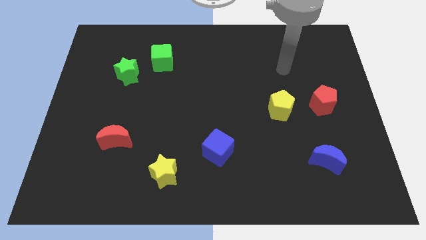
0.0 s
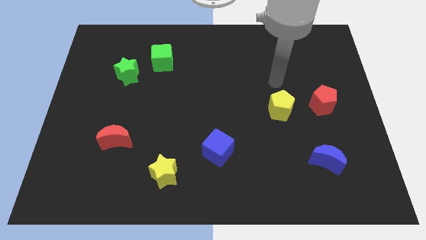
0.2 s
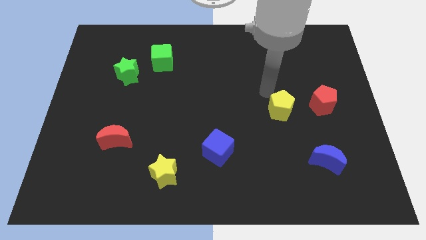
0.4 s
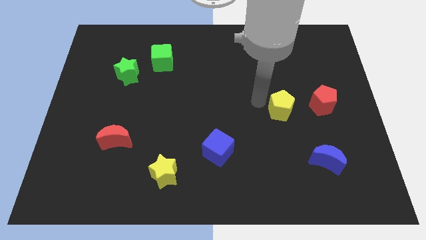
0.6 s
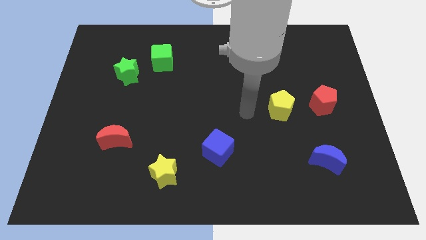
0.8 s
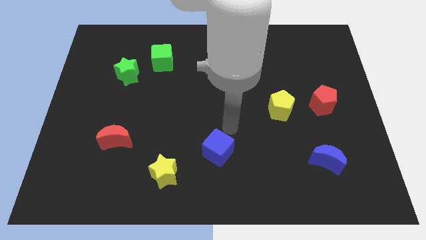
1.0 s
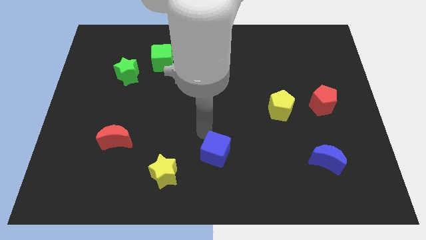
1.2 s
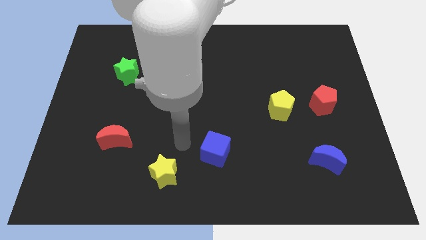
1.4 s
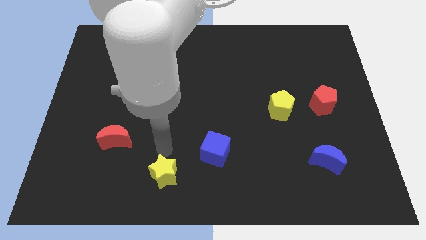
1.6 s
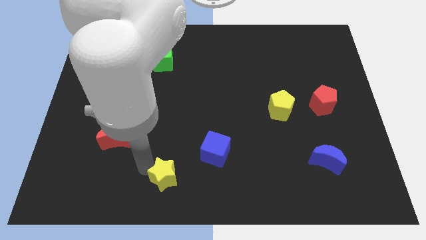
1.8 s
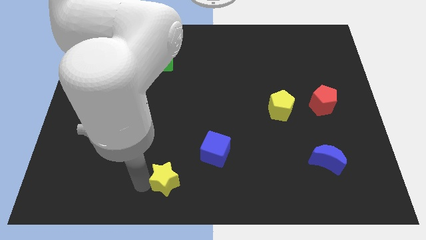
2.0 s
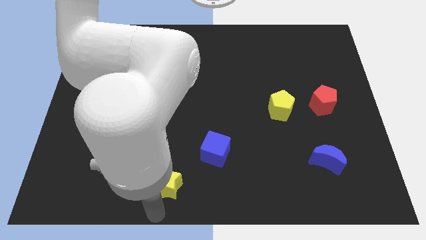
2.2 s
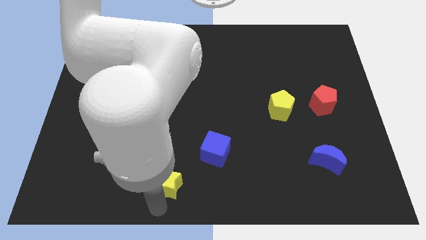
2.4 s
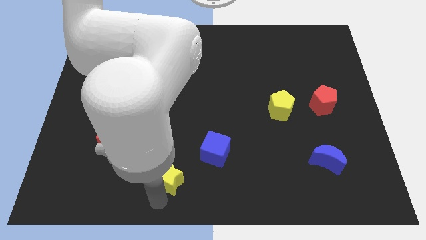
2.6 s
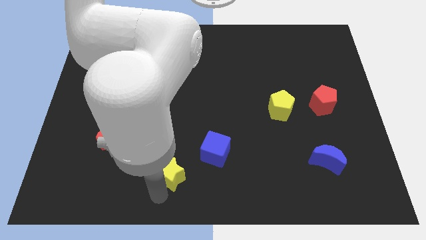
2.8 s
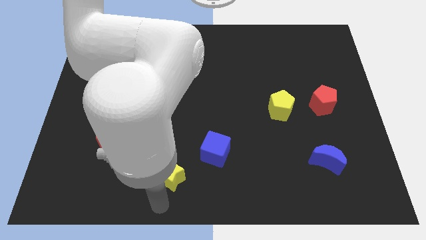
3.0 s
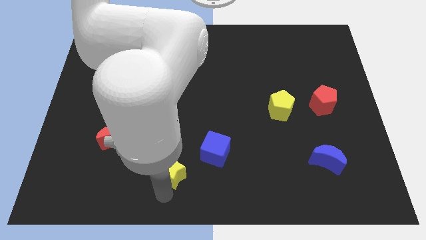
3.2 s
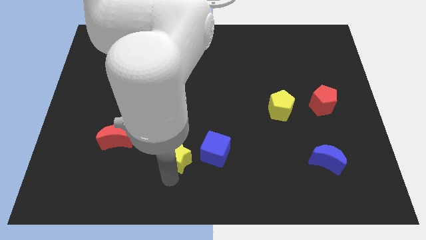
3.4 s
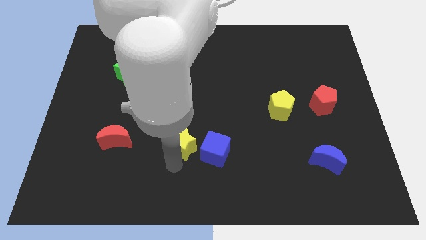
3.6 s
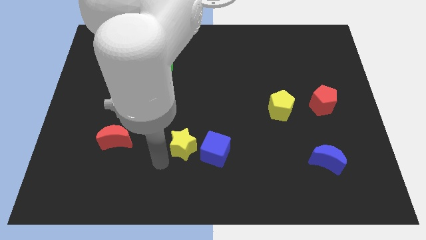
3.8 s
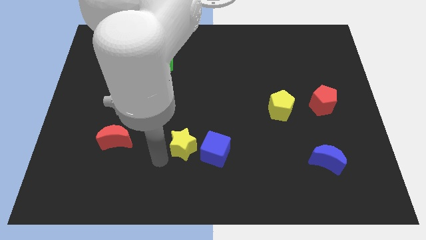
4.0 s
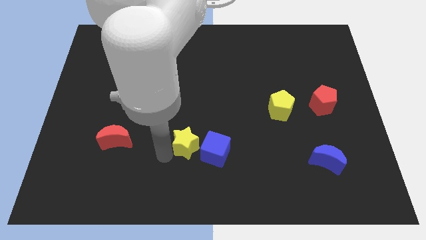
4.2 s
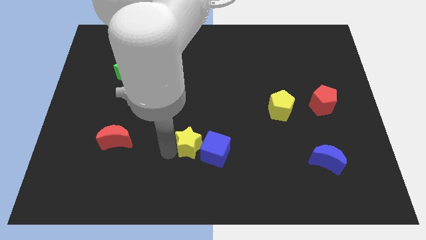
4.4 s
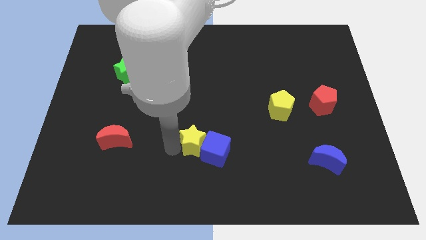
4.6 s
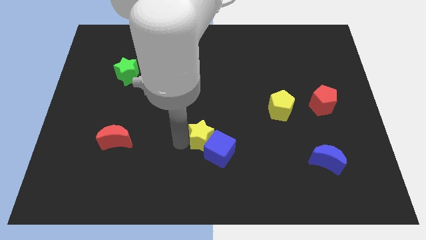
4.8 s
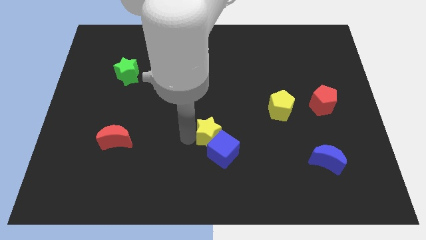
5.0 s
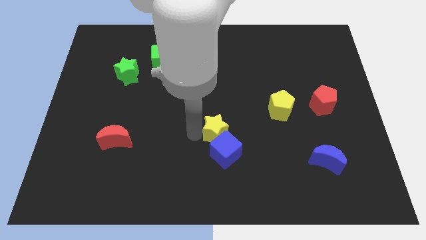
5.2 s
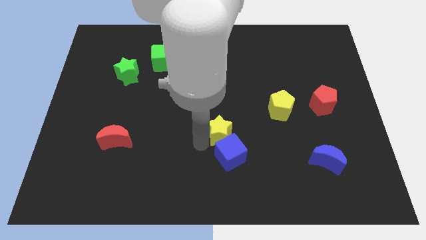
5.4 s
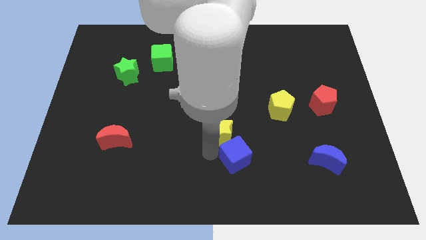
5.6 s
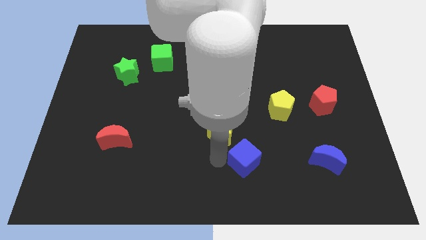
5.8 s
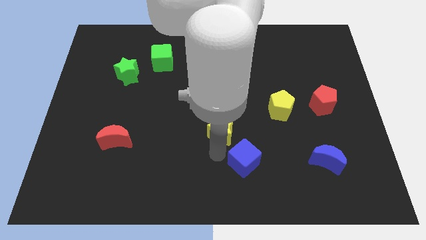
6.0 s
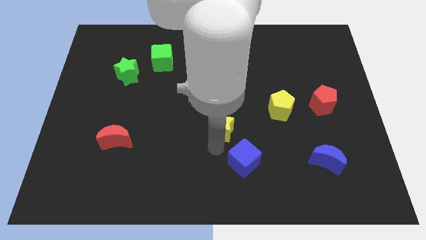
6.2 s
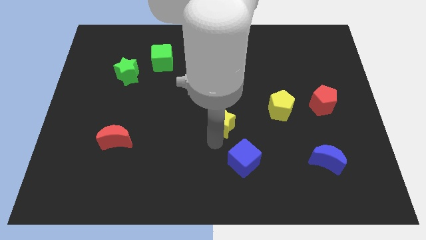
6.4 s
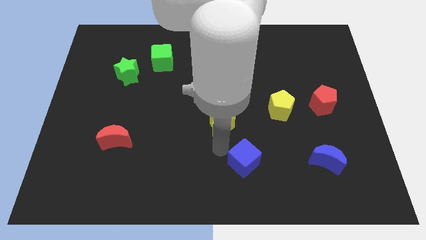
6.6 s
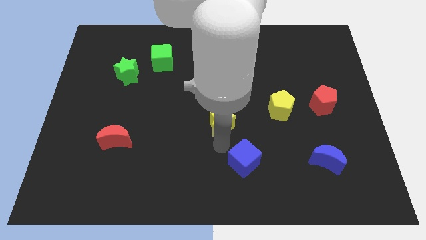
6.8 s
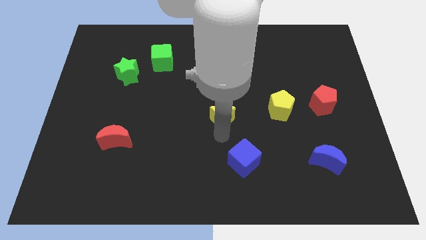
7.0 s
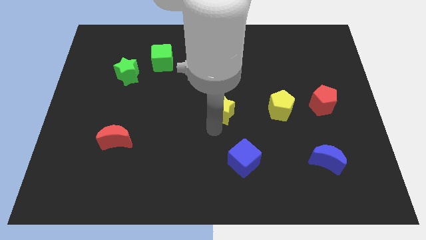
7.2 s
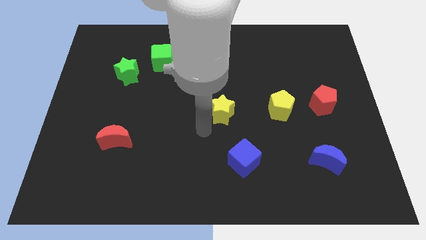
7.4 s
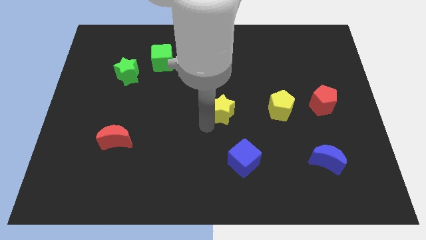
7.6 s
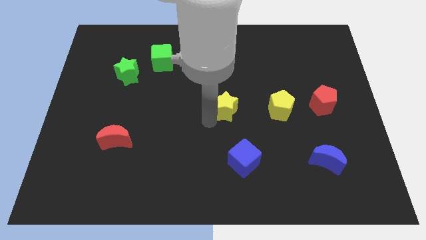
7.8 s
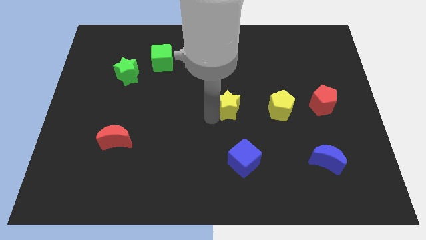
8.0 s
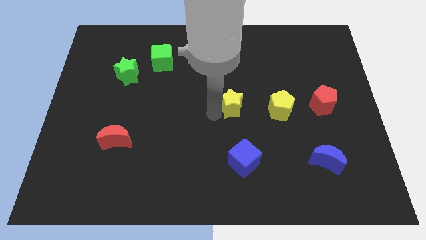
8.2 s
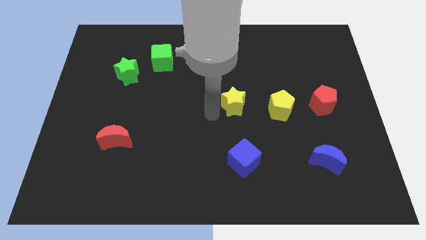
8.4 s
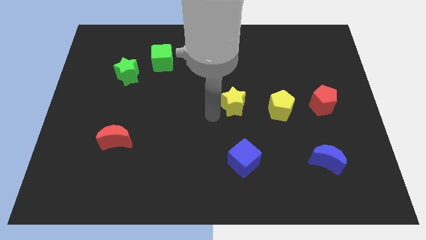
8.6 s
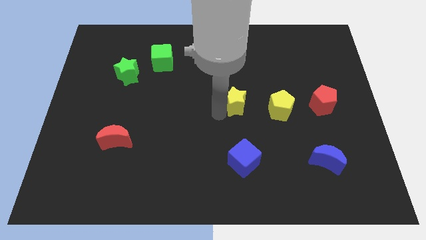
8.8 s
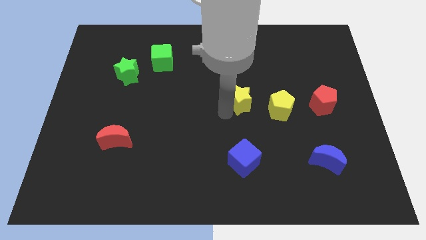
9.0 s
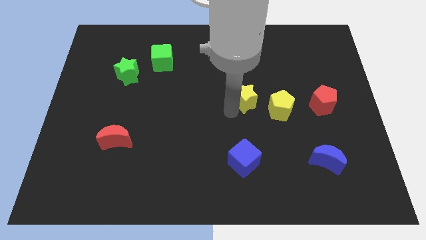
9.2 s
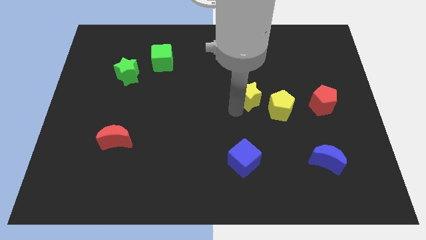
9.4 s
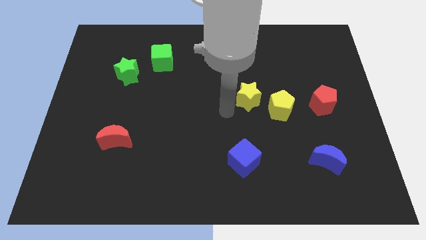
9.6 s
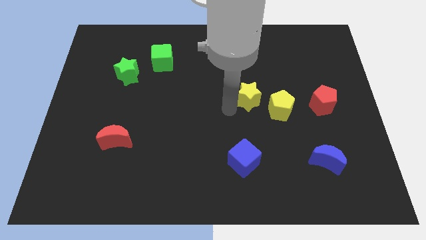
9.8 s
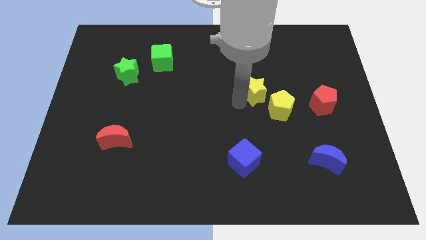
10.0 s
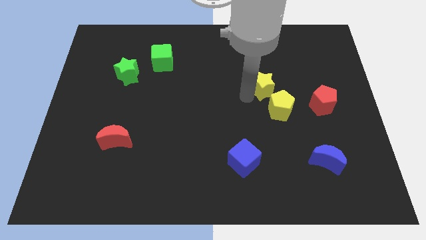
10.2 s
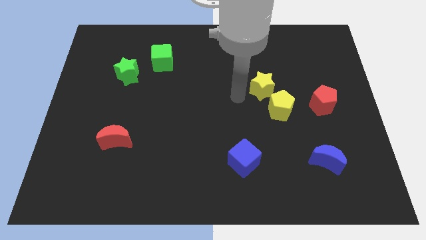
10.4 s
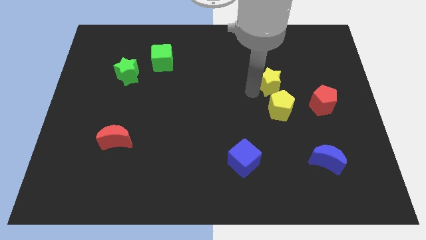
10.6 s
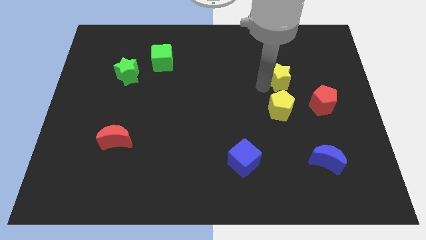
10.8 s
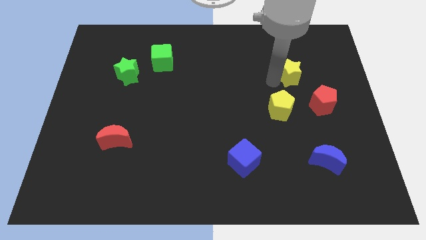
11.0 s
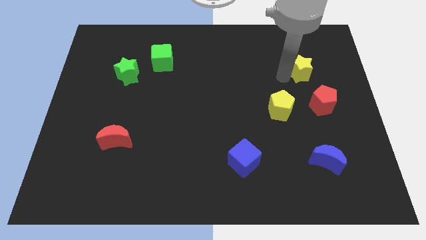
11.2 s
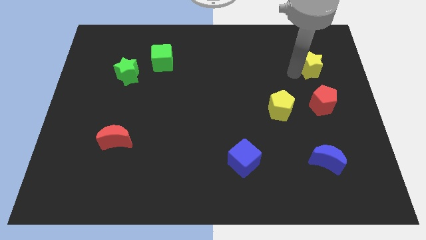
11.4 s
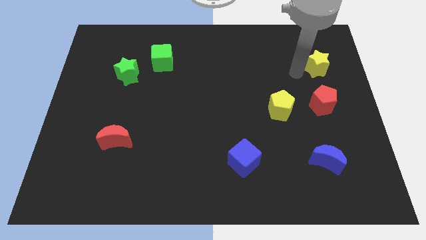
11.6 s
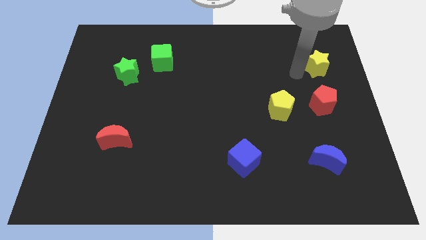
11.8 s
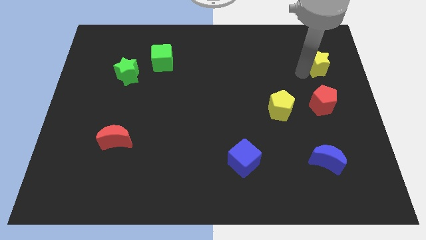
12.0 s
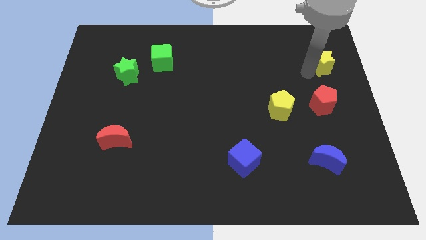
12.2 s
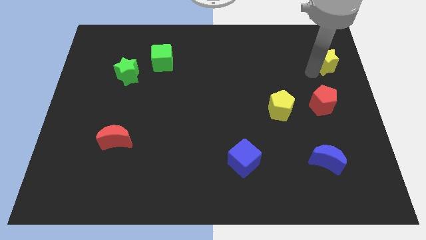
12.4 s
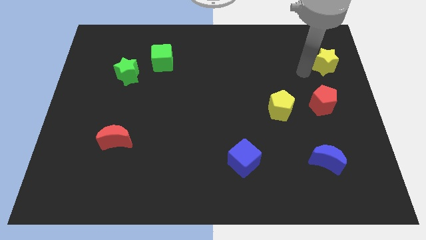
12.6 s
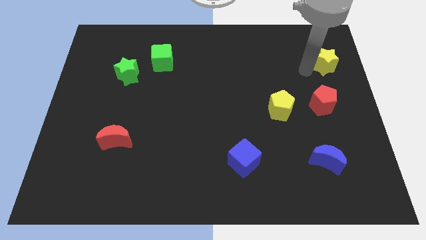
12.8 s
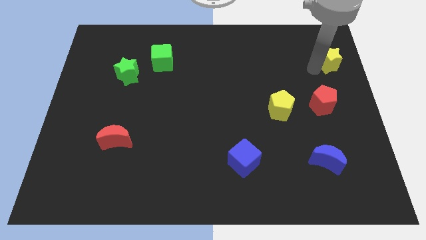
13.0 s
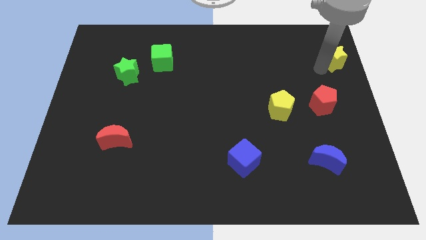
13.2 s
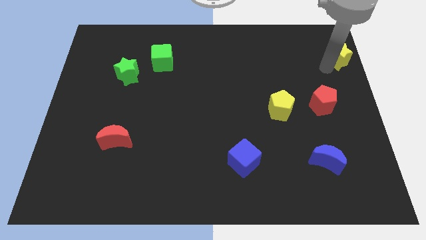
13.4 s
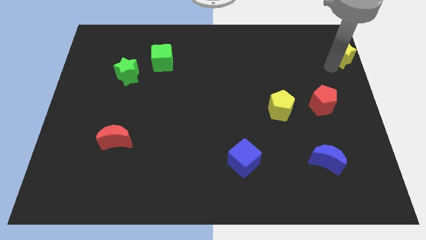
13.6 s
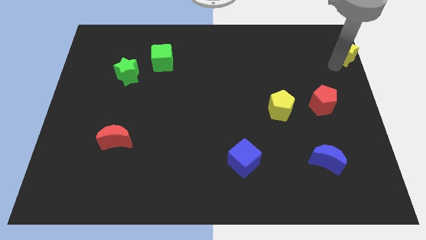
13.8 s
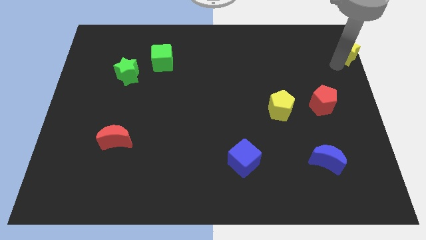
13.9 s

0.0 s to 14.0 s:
move the yellow star to the top right
